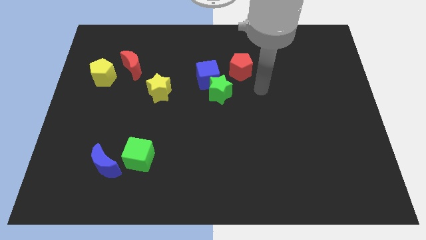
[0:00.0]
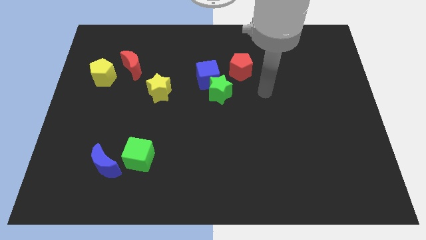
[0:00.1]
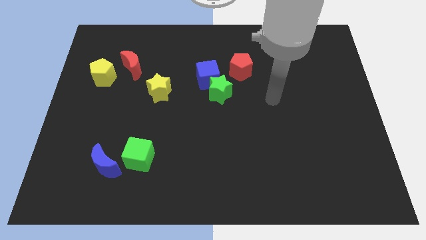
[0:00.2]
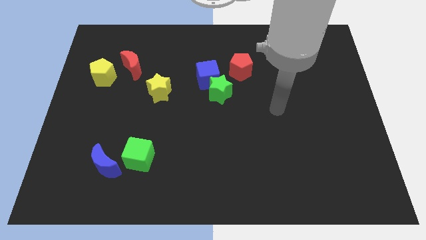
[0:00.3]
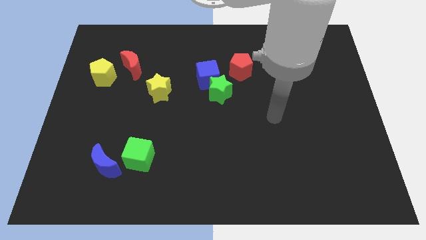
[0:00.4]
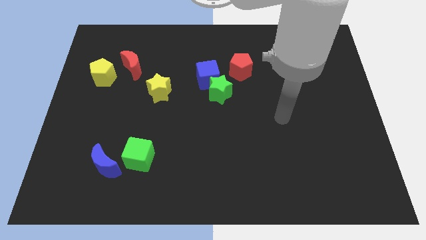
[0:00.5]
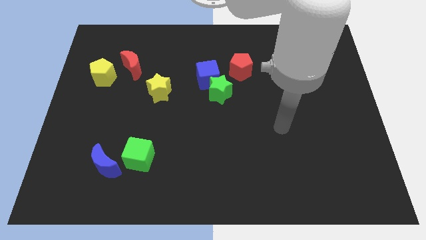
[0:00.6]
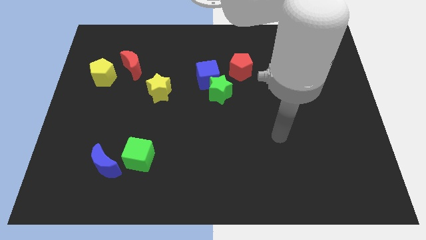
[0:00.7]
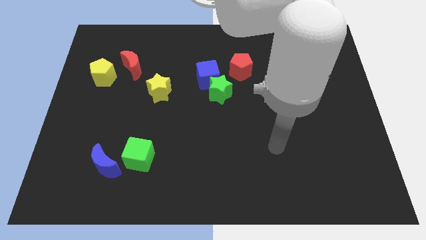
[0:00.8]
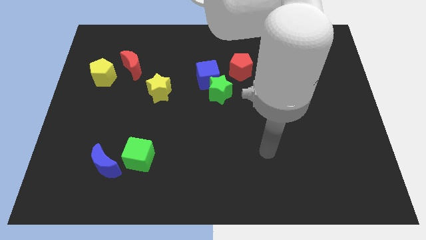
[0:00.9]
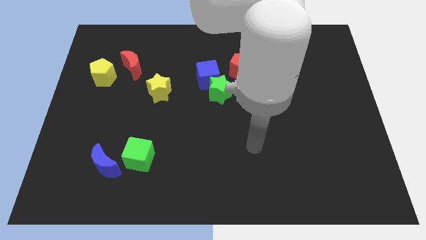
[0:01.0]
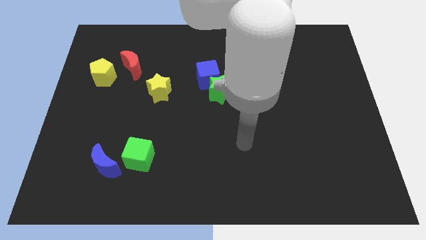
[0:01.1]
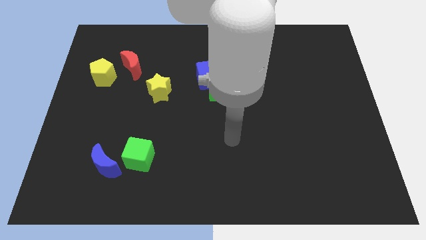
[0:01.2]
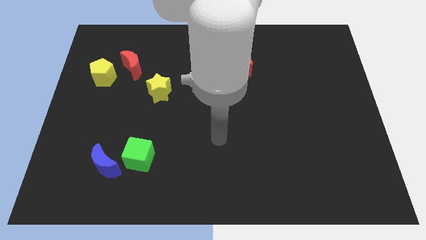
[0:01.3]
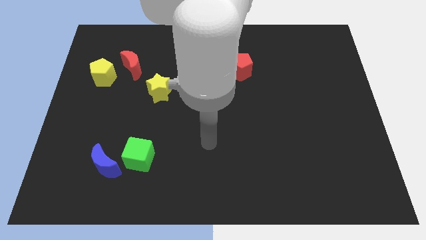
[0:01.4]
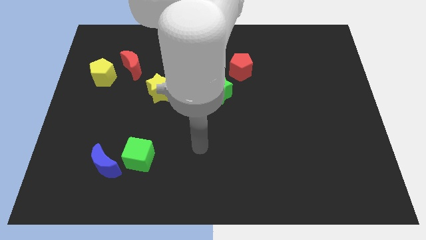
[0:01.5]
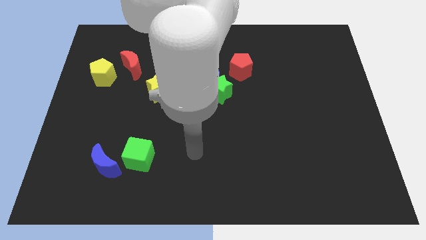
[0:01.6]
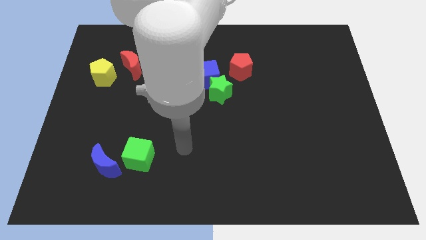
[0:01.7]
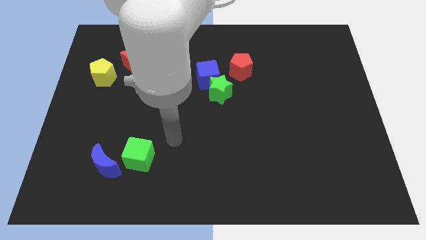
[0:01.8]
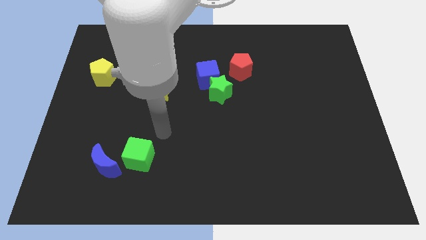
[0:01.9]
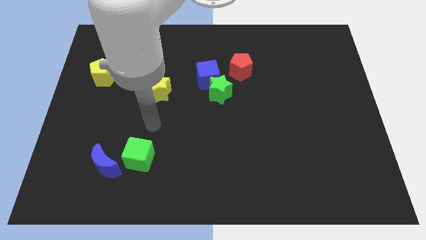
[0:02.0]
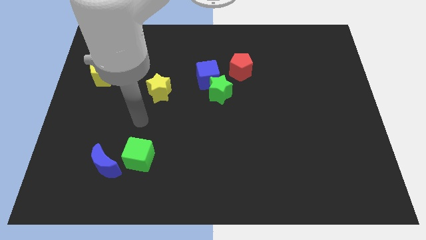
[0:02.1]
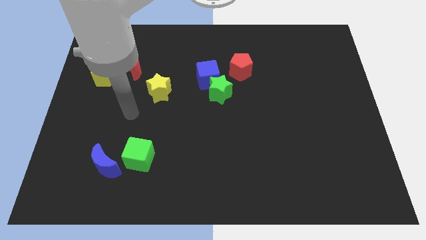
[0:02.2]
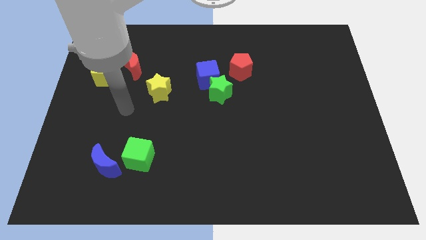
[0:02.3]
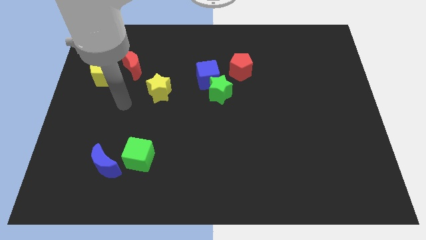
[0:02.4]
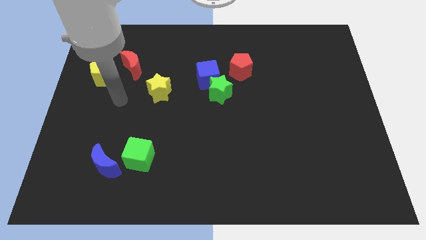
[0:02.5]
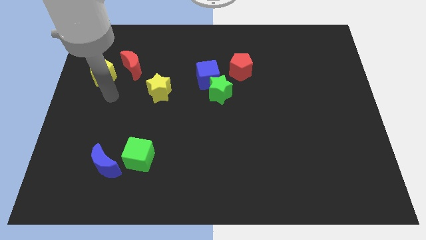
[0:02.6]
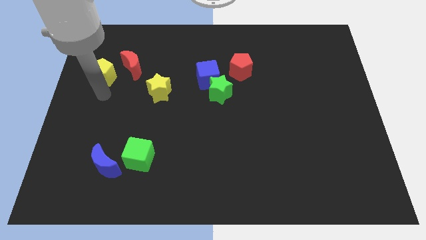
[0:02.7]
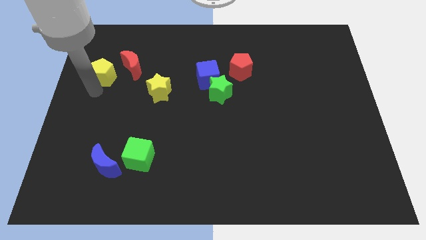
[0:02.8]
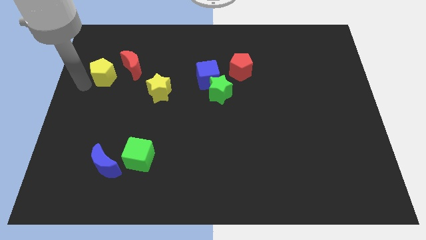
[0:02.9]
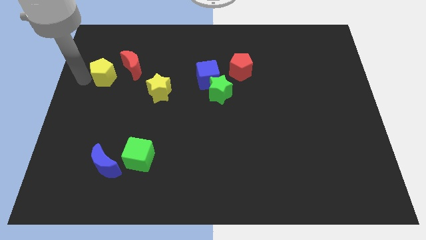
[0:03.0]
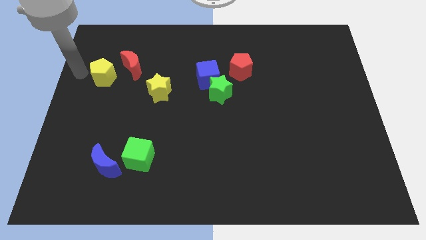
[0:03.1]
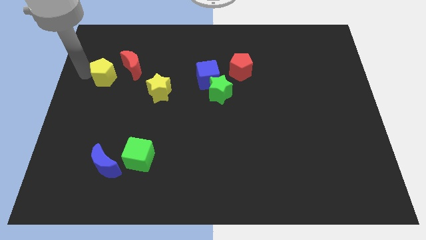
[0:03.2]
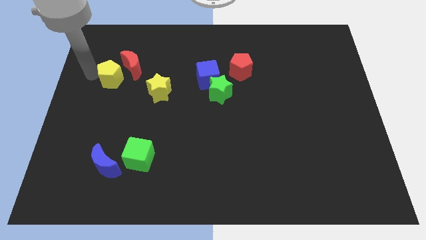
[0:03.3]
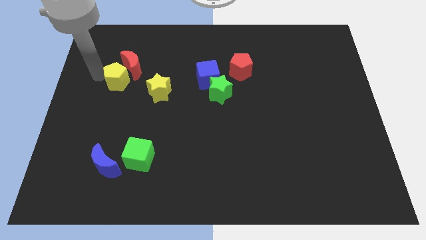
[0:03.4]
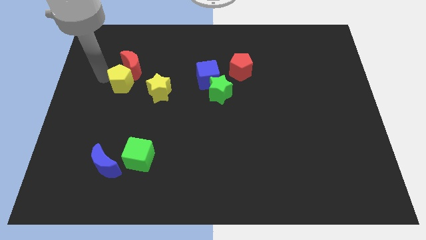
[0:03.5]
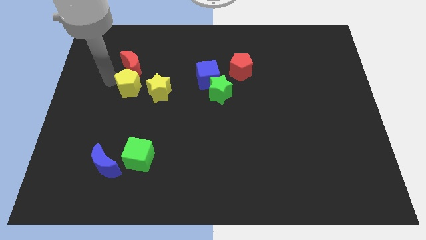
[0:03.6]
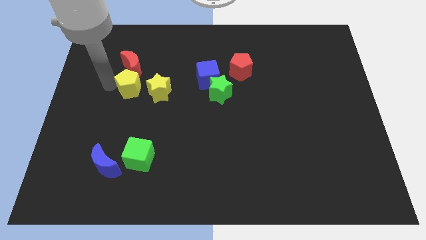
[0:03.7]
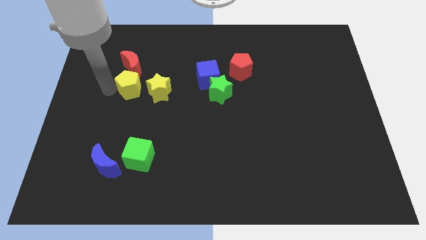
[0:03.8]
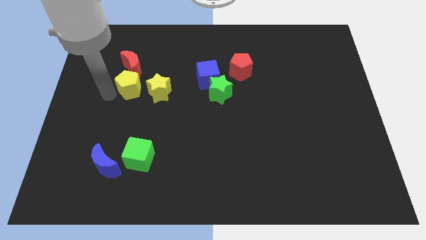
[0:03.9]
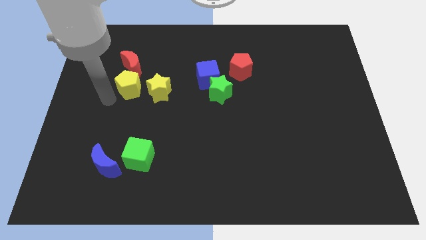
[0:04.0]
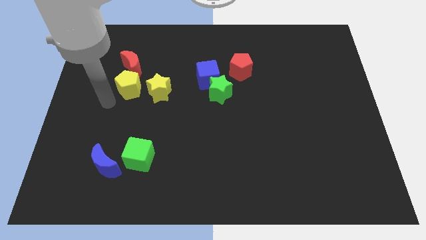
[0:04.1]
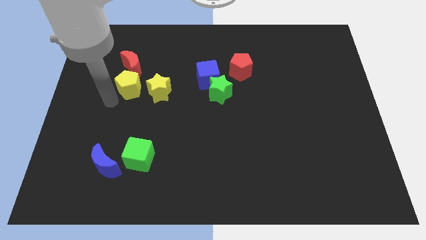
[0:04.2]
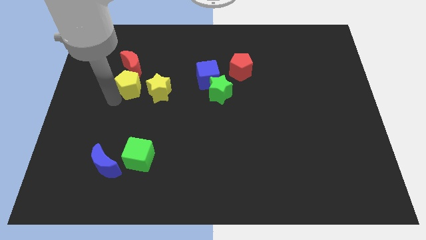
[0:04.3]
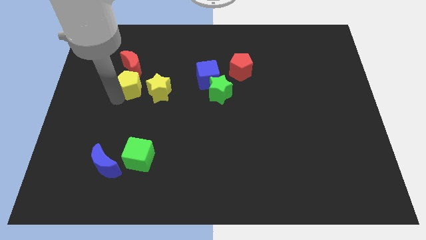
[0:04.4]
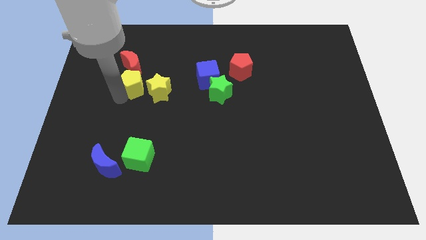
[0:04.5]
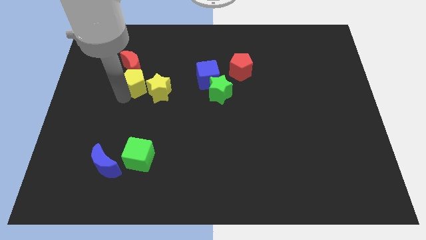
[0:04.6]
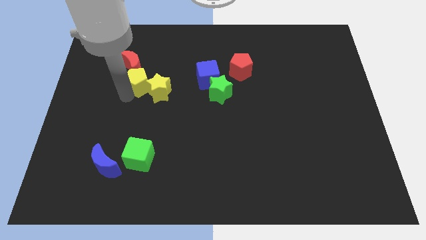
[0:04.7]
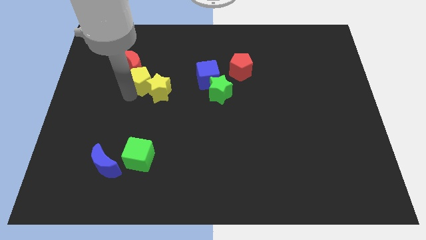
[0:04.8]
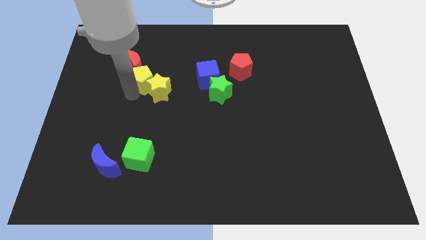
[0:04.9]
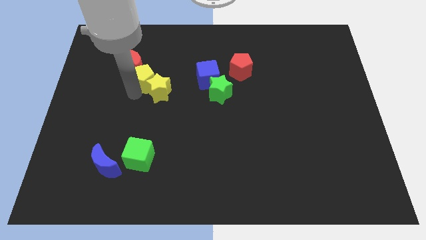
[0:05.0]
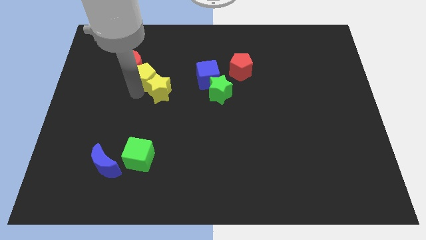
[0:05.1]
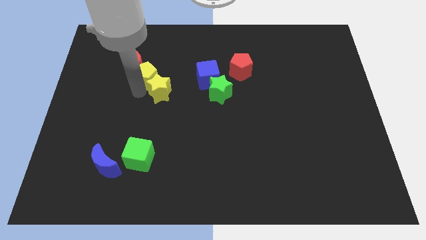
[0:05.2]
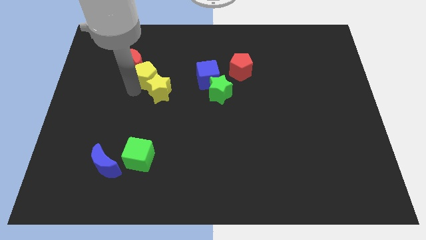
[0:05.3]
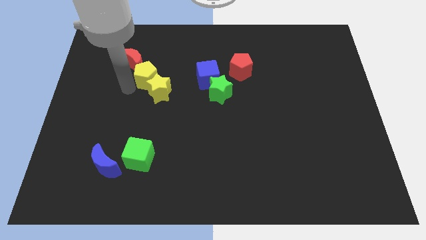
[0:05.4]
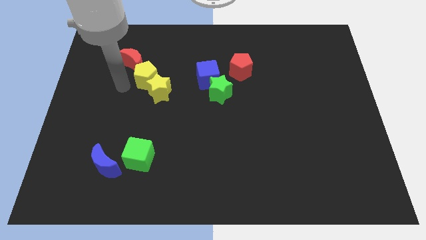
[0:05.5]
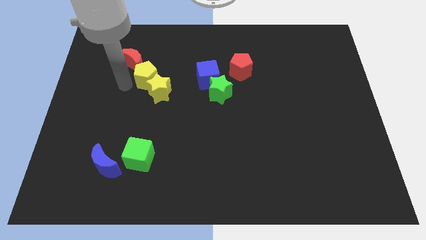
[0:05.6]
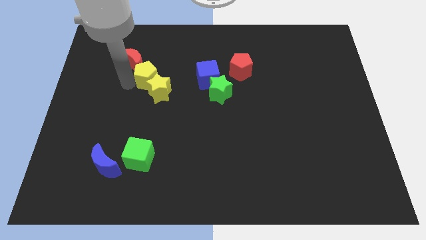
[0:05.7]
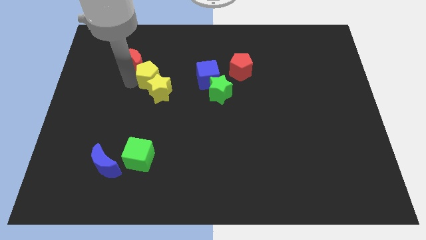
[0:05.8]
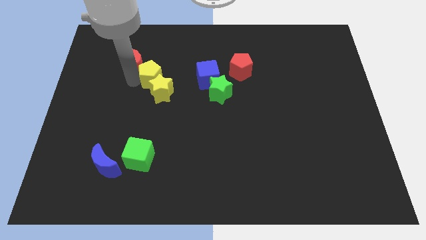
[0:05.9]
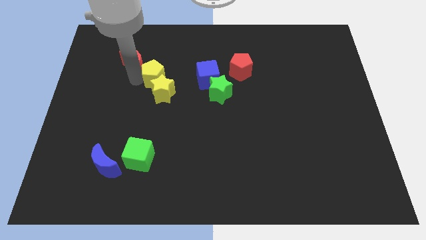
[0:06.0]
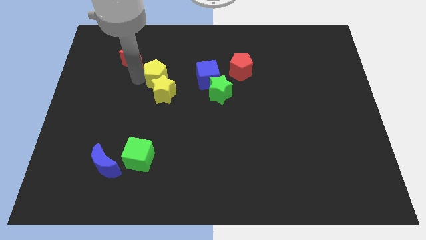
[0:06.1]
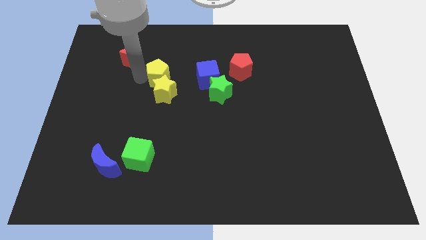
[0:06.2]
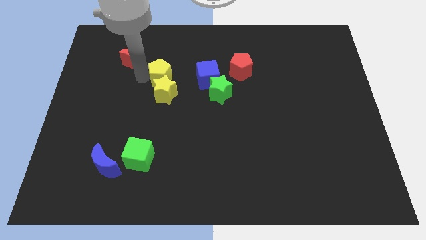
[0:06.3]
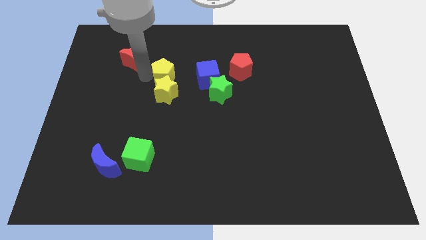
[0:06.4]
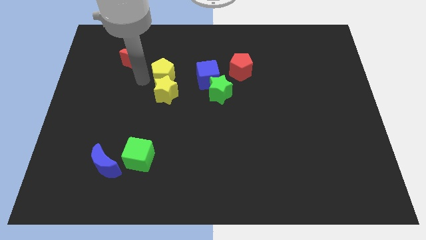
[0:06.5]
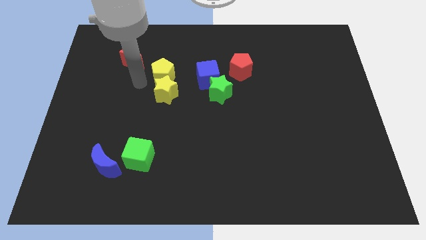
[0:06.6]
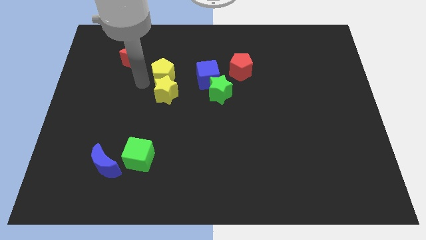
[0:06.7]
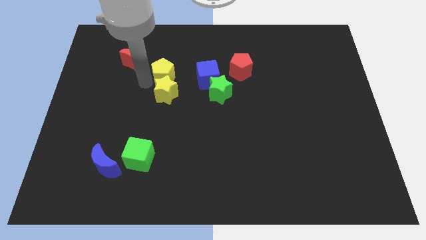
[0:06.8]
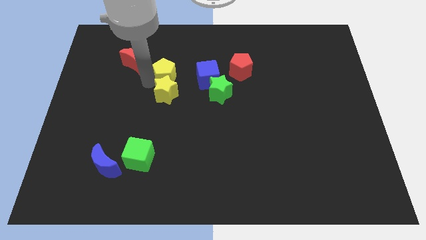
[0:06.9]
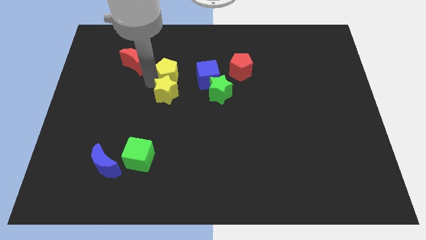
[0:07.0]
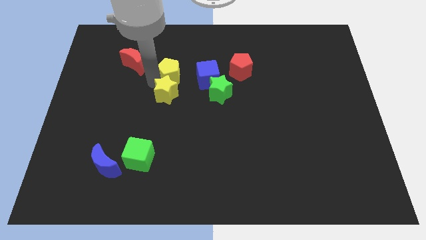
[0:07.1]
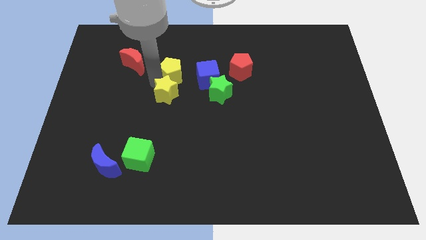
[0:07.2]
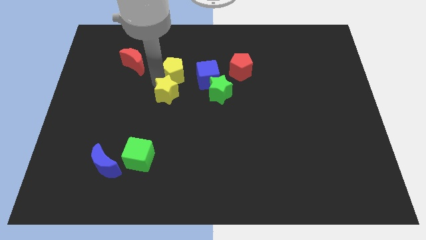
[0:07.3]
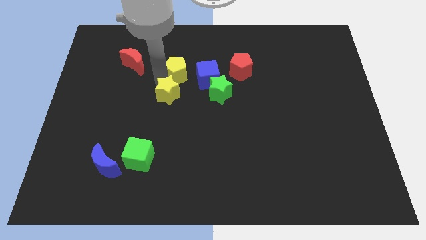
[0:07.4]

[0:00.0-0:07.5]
move the yellow pentagon left of the red pentagon
